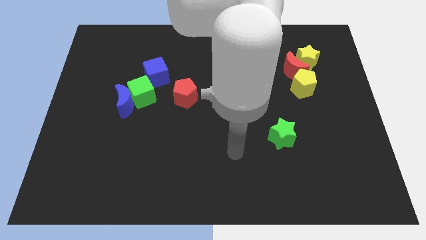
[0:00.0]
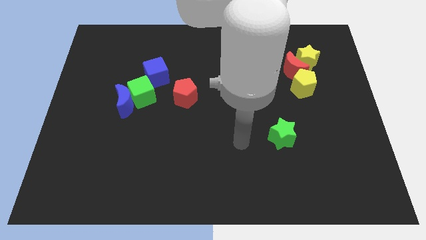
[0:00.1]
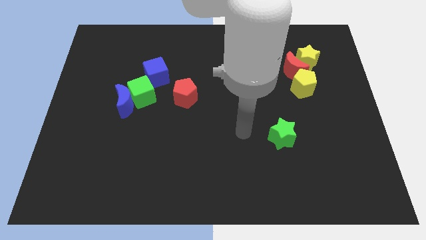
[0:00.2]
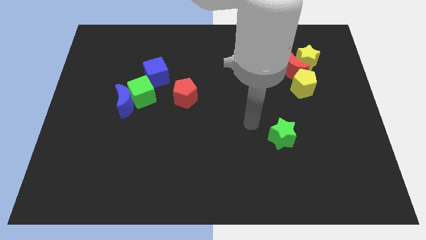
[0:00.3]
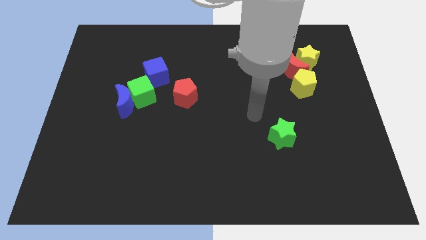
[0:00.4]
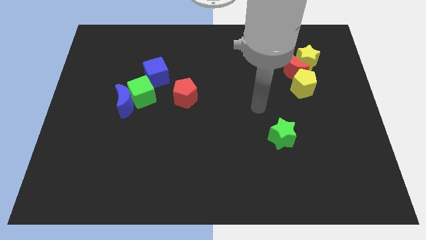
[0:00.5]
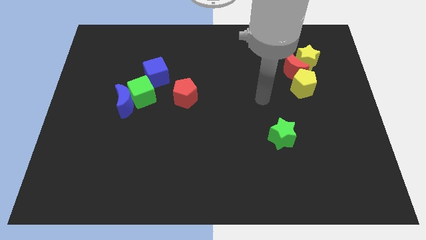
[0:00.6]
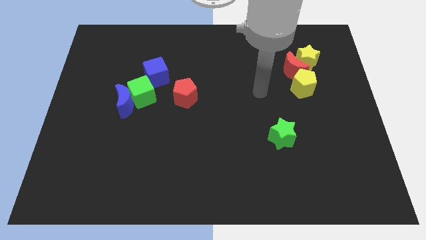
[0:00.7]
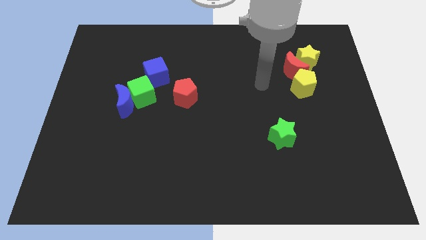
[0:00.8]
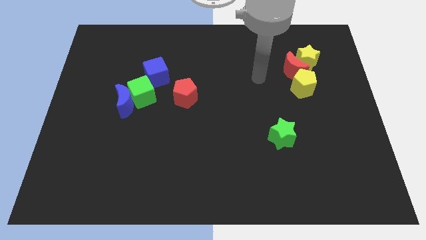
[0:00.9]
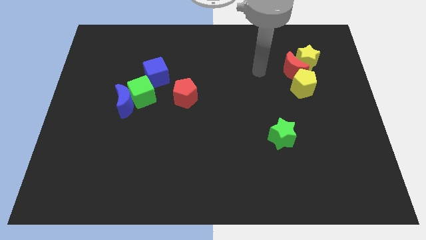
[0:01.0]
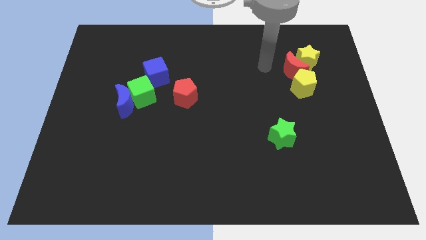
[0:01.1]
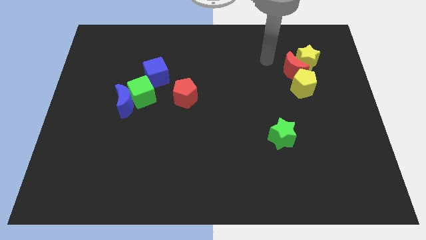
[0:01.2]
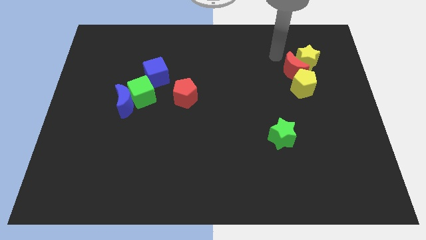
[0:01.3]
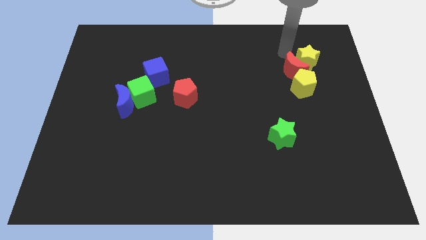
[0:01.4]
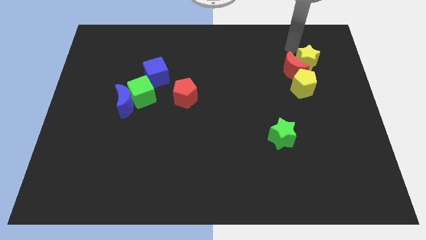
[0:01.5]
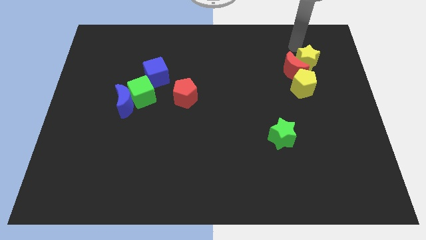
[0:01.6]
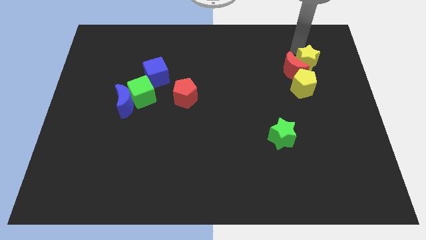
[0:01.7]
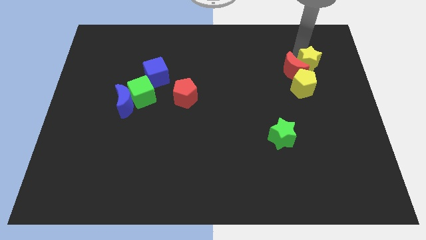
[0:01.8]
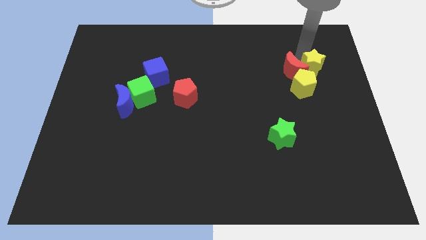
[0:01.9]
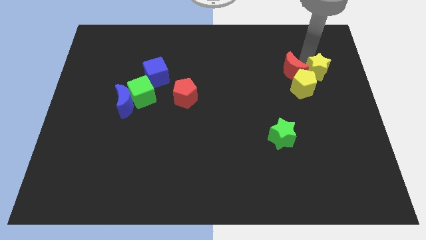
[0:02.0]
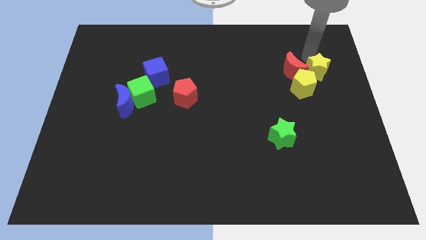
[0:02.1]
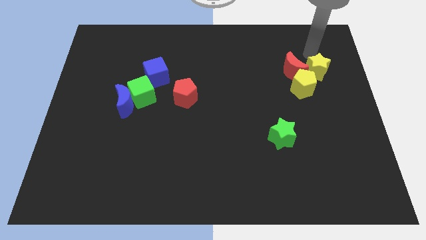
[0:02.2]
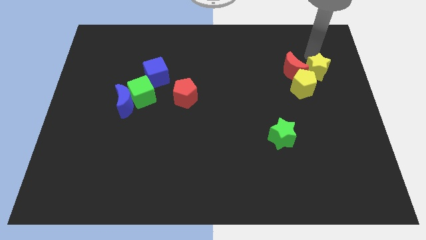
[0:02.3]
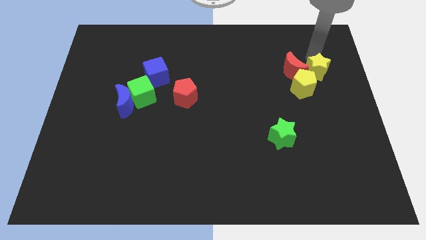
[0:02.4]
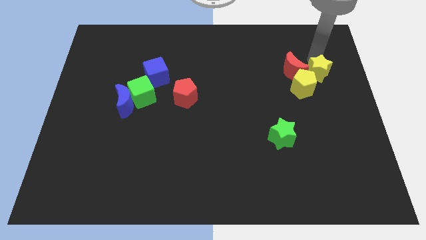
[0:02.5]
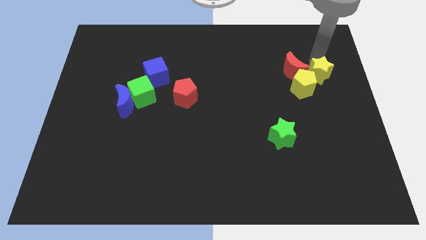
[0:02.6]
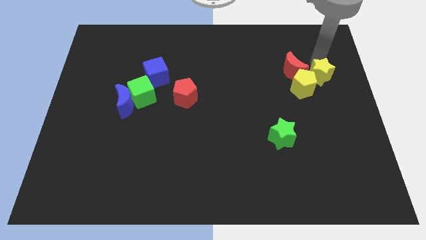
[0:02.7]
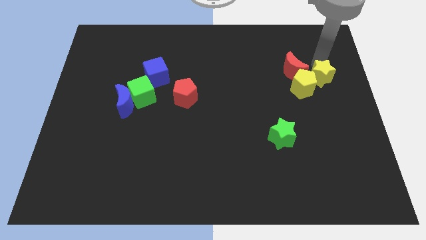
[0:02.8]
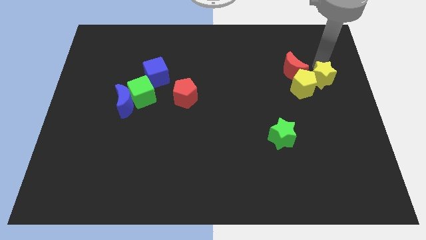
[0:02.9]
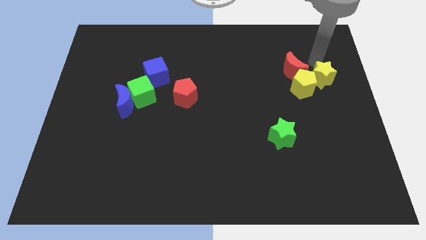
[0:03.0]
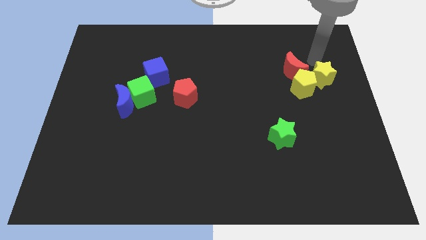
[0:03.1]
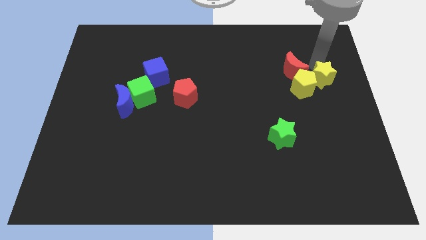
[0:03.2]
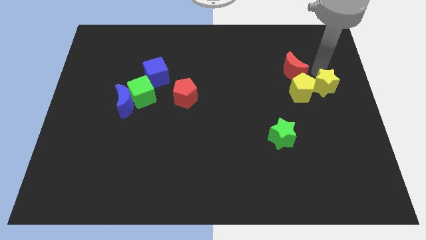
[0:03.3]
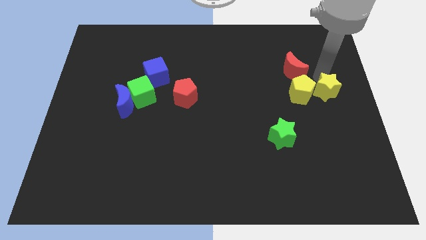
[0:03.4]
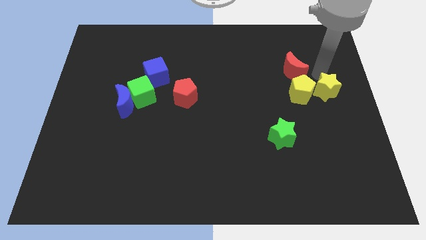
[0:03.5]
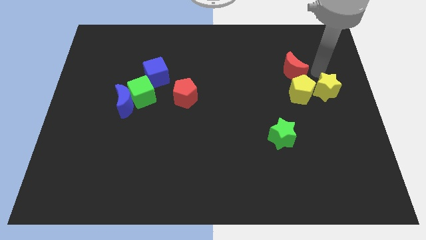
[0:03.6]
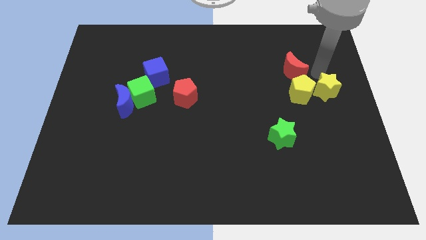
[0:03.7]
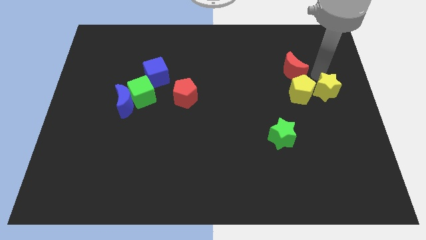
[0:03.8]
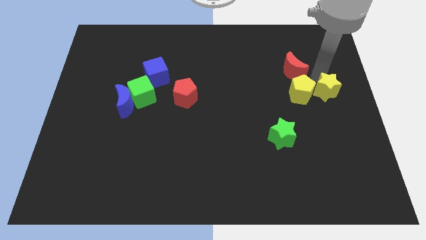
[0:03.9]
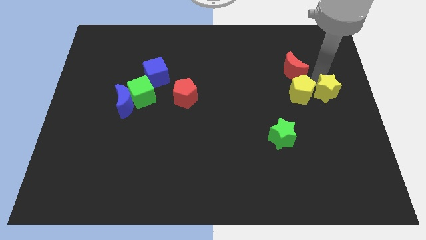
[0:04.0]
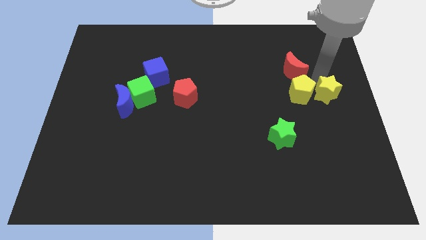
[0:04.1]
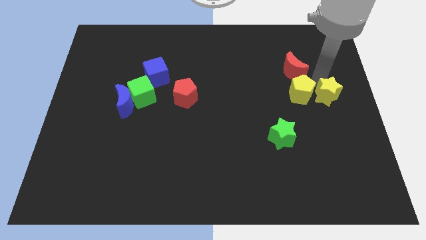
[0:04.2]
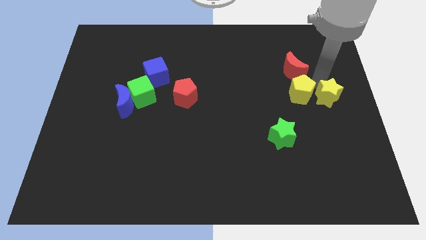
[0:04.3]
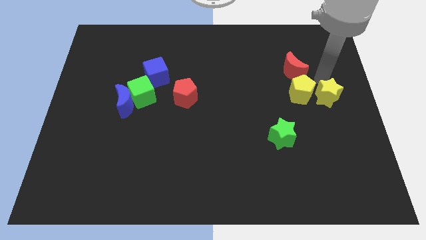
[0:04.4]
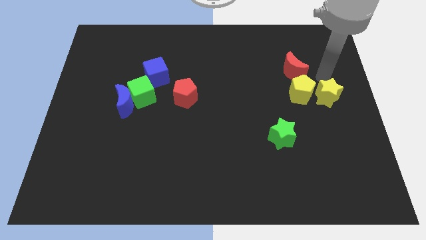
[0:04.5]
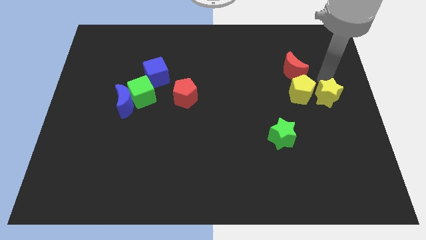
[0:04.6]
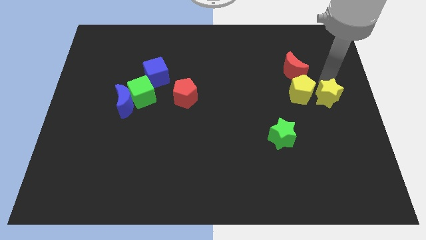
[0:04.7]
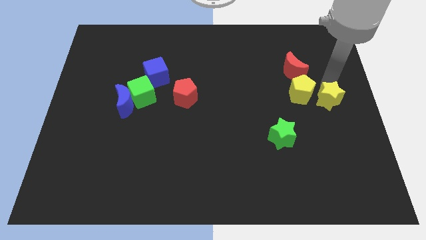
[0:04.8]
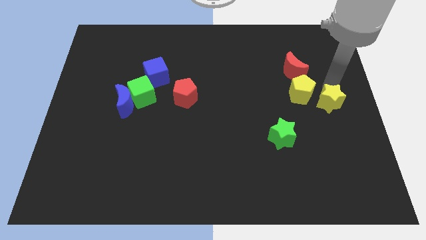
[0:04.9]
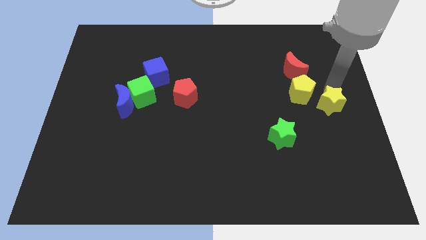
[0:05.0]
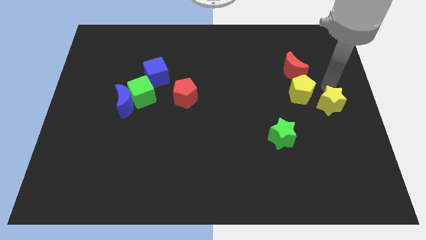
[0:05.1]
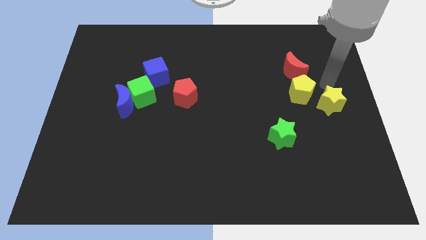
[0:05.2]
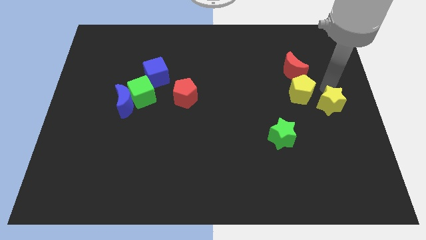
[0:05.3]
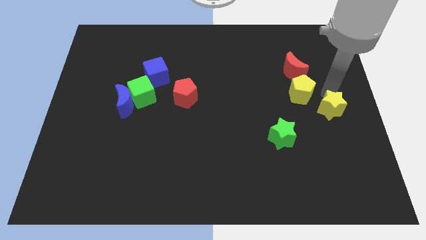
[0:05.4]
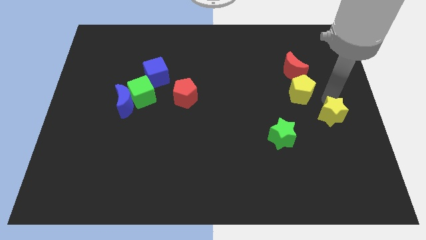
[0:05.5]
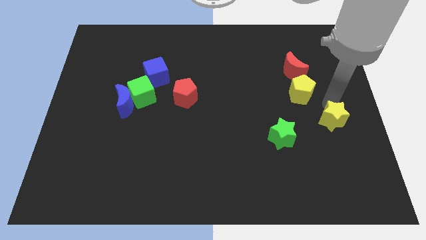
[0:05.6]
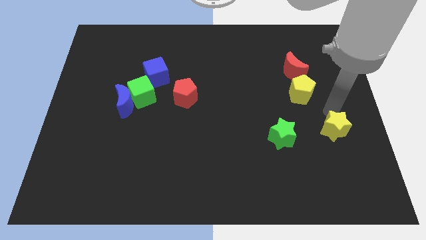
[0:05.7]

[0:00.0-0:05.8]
move the yellow star down

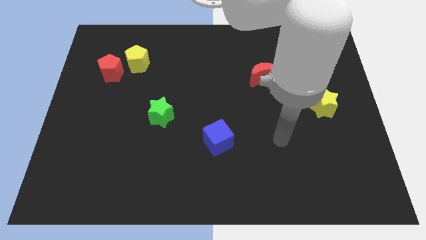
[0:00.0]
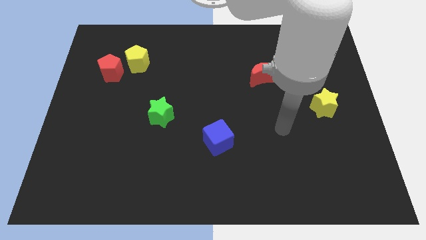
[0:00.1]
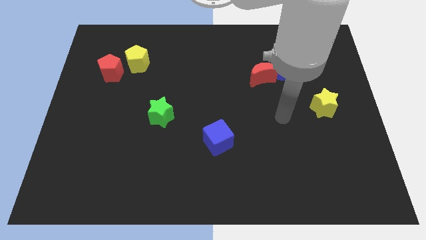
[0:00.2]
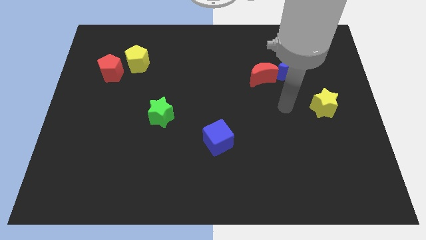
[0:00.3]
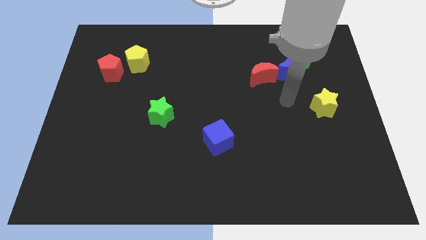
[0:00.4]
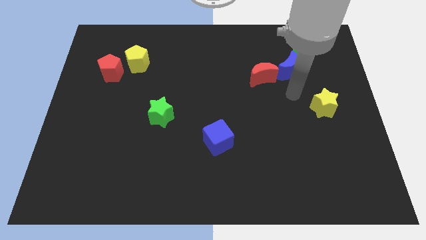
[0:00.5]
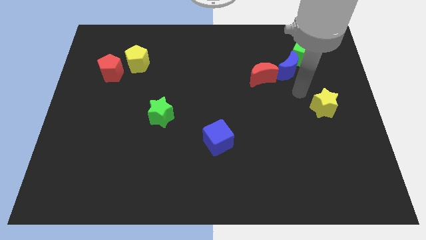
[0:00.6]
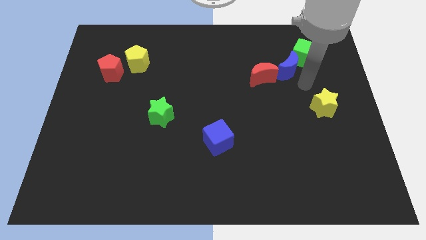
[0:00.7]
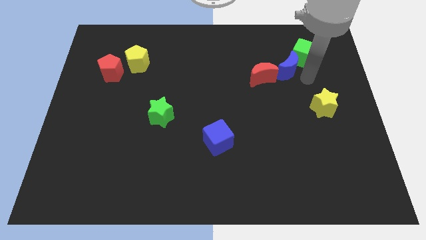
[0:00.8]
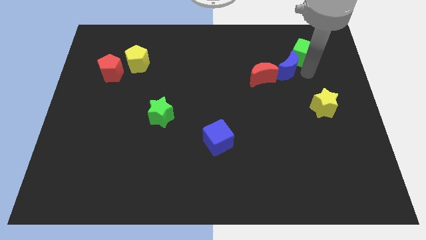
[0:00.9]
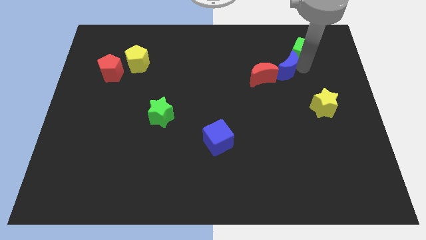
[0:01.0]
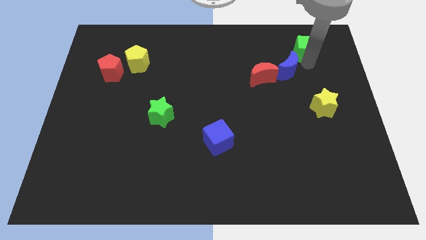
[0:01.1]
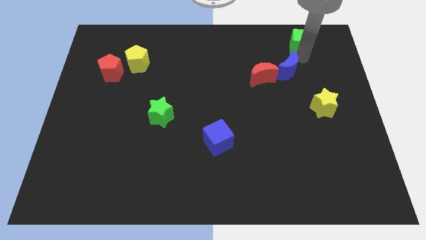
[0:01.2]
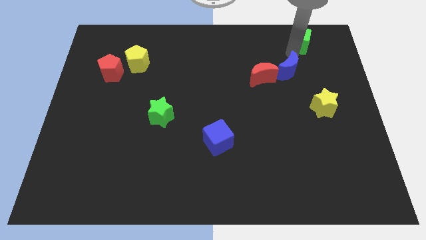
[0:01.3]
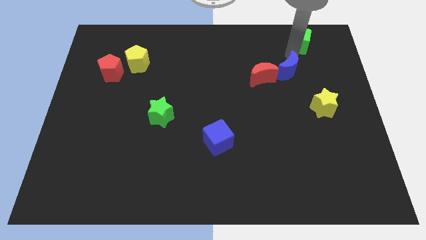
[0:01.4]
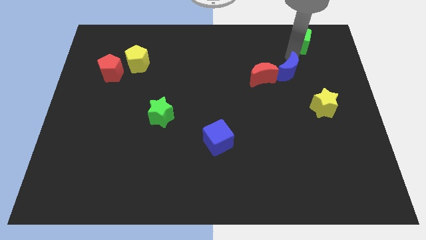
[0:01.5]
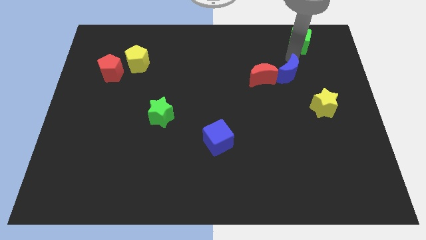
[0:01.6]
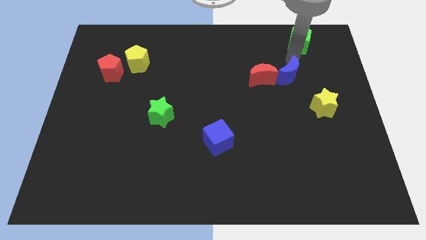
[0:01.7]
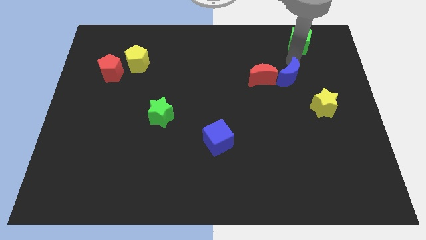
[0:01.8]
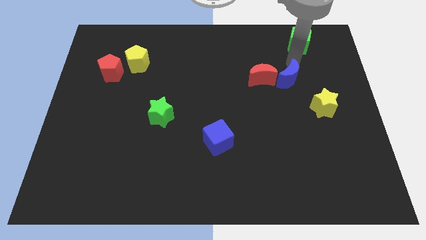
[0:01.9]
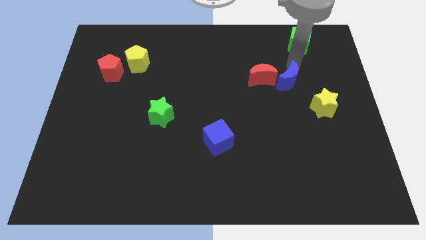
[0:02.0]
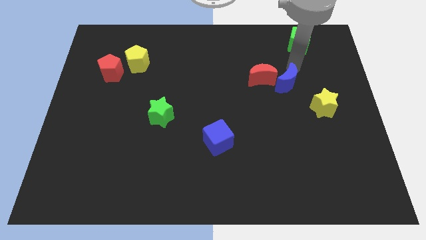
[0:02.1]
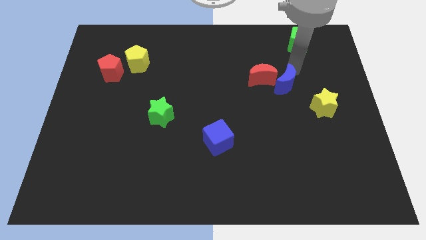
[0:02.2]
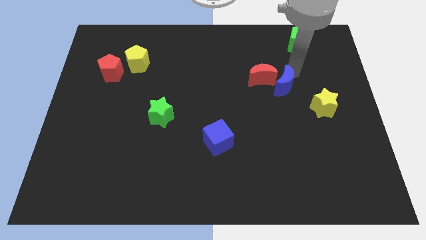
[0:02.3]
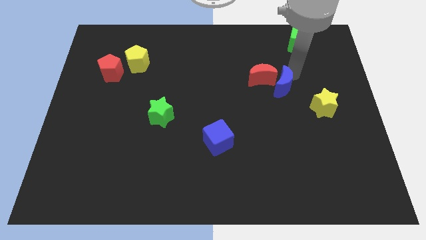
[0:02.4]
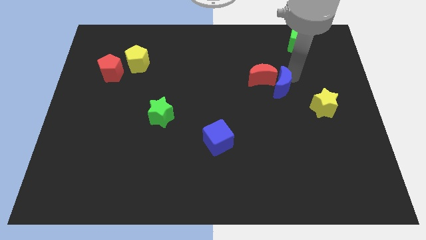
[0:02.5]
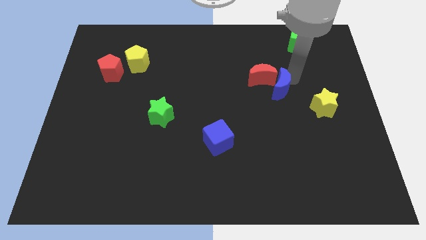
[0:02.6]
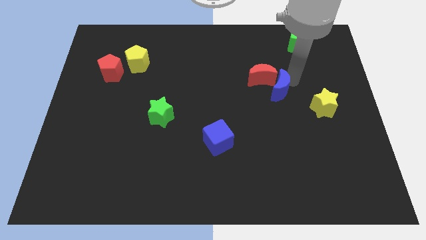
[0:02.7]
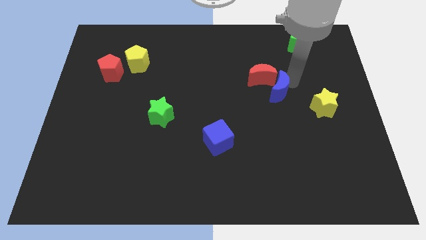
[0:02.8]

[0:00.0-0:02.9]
move the blue moon down and then to the left somewhat
